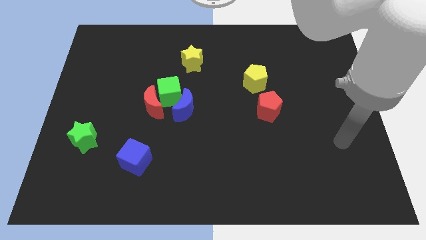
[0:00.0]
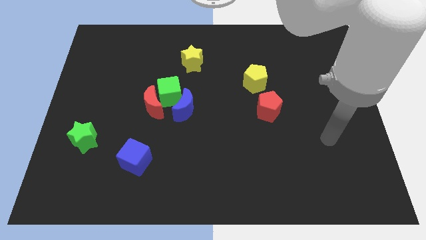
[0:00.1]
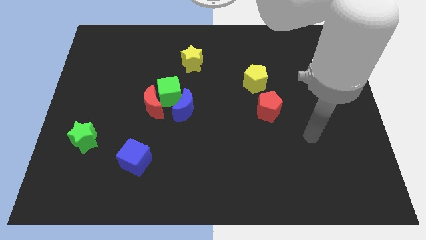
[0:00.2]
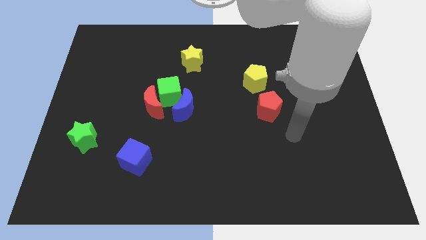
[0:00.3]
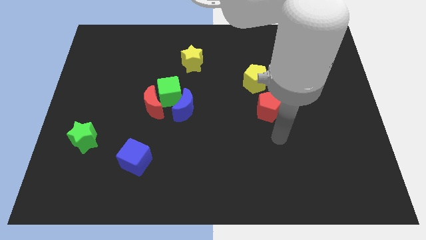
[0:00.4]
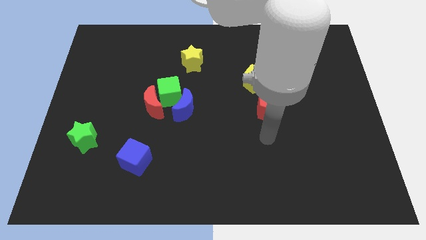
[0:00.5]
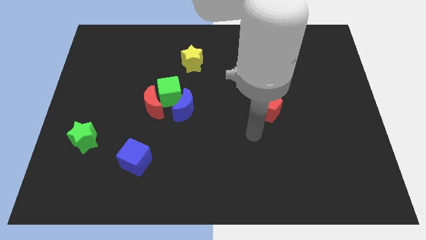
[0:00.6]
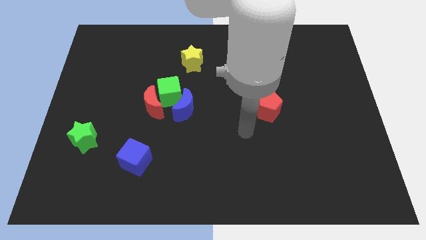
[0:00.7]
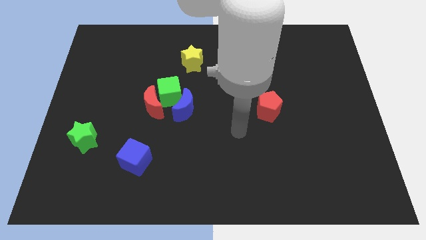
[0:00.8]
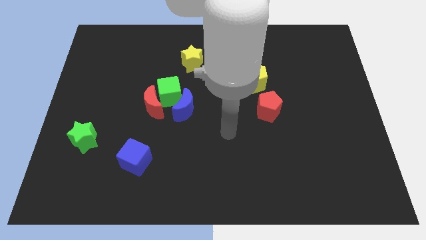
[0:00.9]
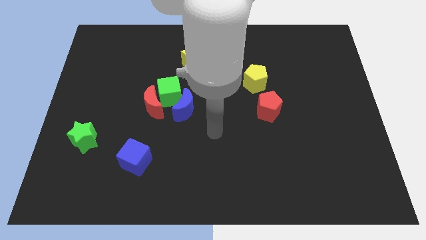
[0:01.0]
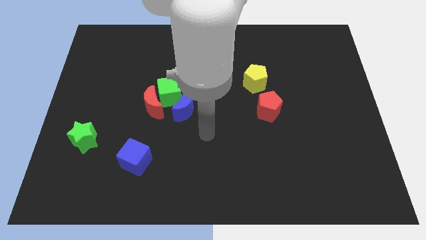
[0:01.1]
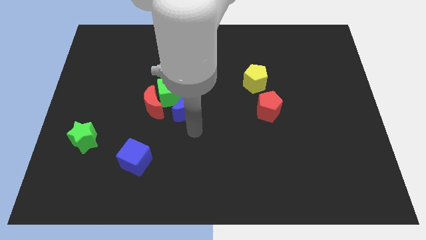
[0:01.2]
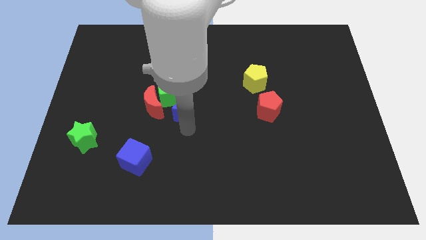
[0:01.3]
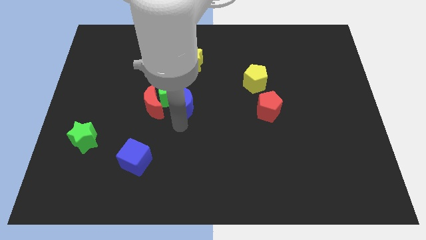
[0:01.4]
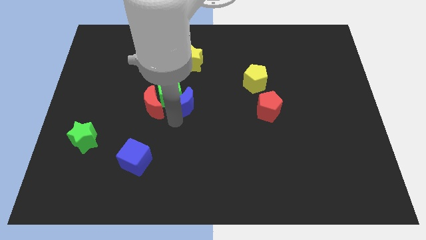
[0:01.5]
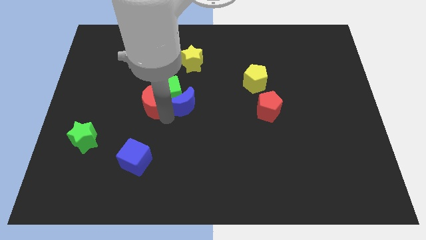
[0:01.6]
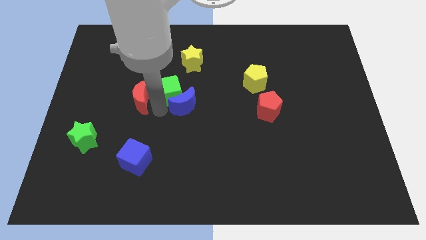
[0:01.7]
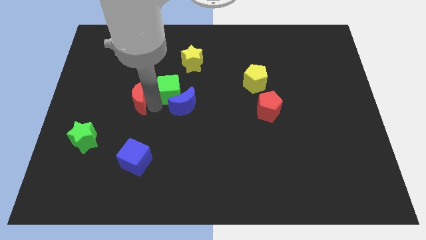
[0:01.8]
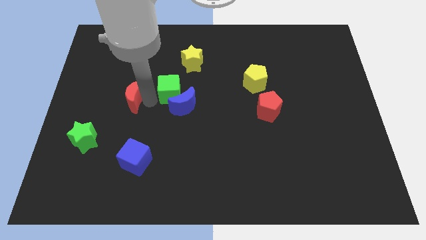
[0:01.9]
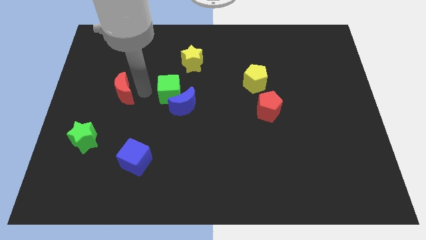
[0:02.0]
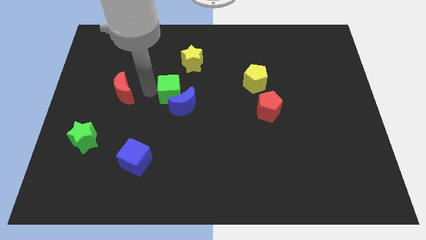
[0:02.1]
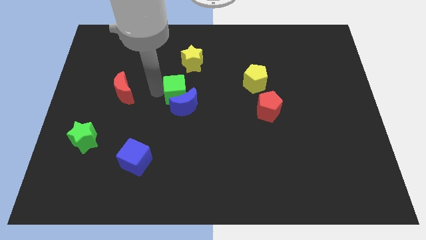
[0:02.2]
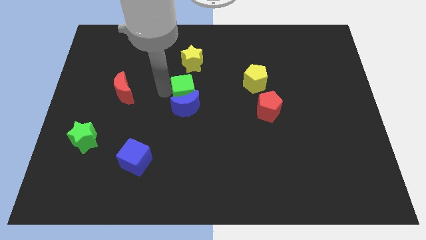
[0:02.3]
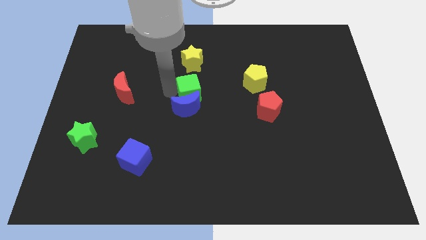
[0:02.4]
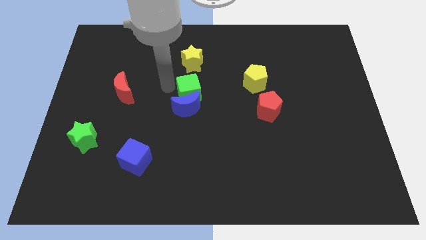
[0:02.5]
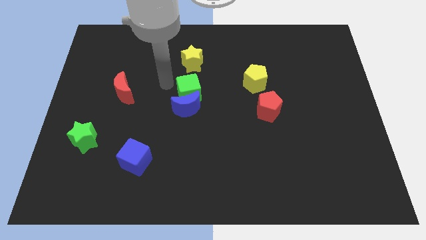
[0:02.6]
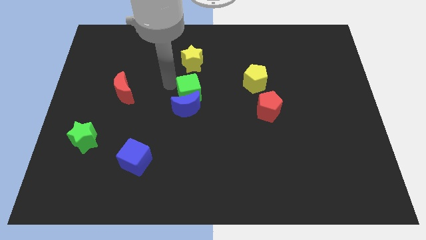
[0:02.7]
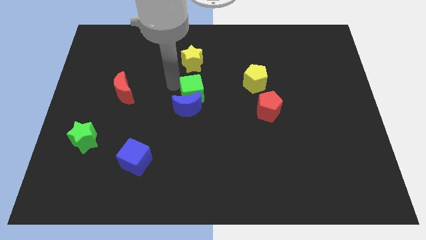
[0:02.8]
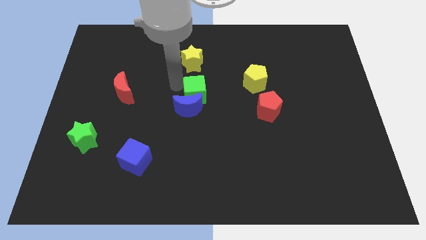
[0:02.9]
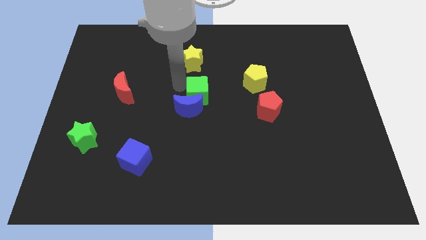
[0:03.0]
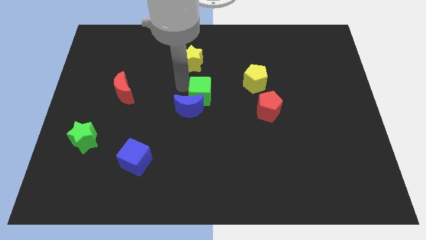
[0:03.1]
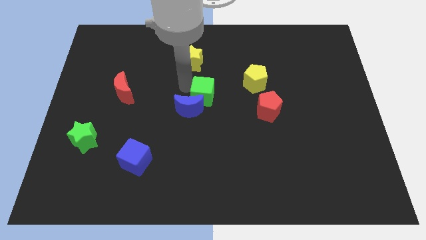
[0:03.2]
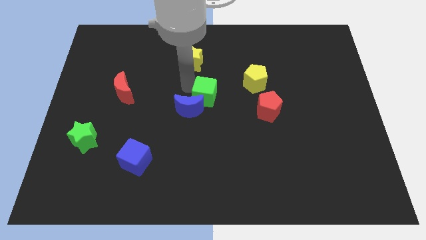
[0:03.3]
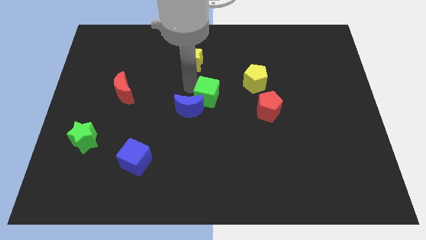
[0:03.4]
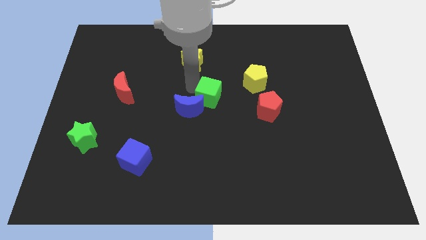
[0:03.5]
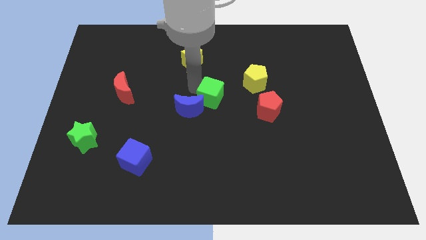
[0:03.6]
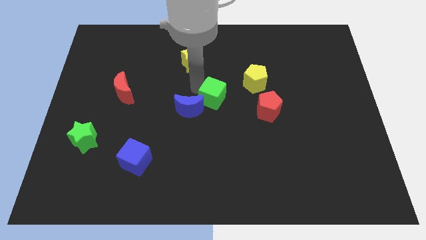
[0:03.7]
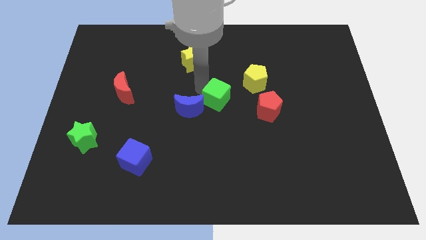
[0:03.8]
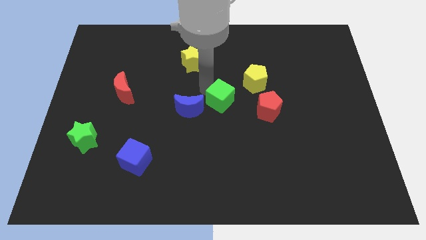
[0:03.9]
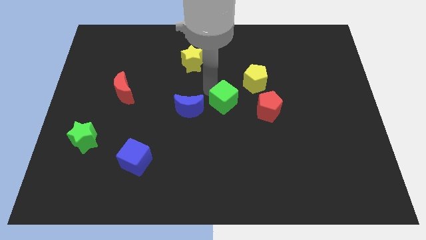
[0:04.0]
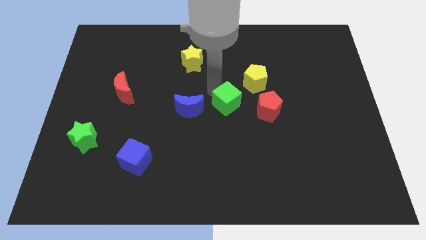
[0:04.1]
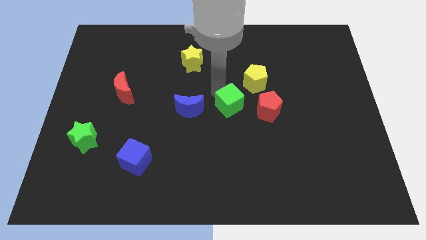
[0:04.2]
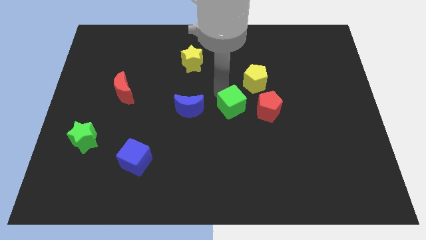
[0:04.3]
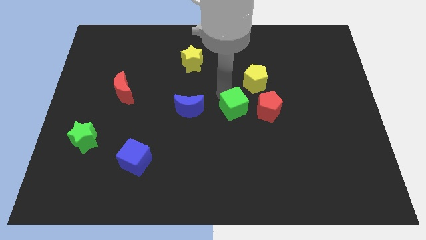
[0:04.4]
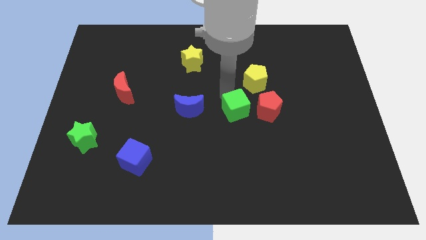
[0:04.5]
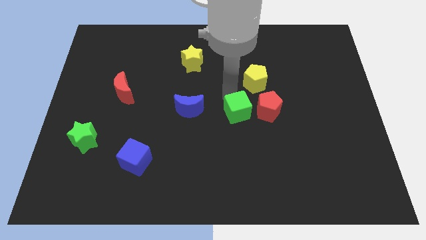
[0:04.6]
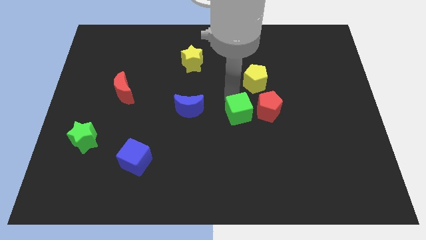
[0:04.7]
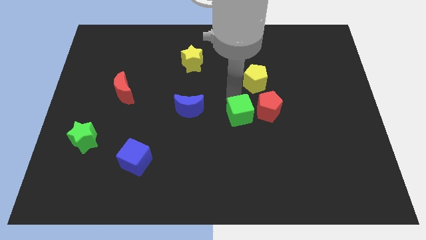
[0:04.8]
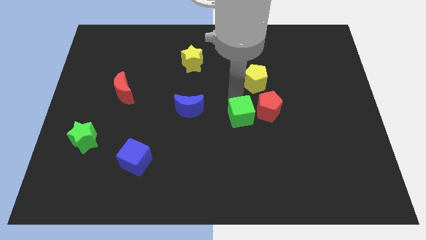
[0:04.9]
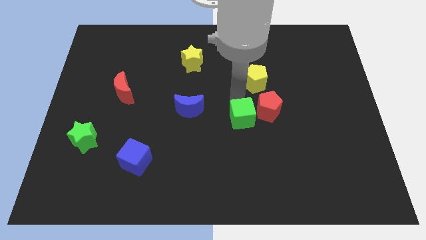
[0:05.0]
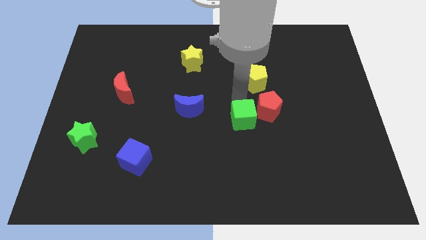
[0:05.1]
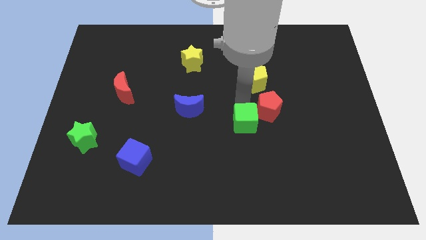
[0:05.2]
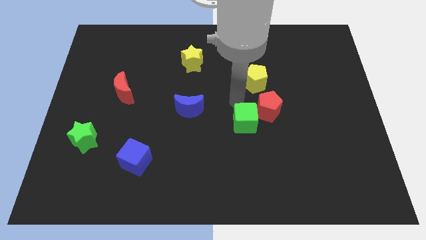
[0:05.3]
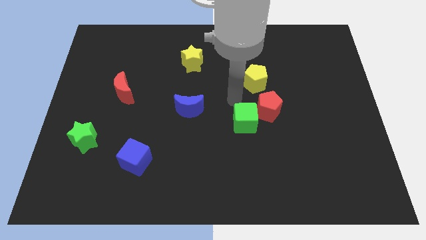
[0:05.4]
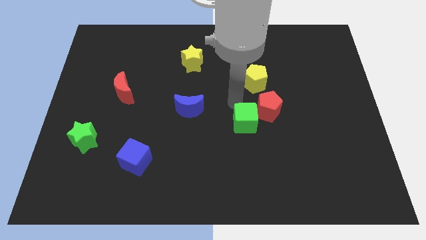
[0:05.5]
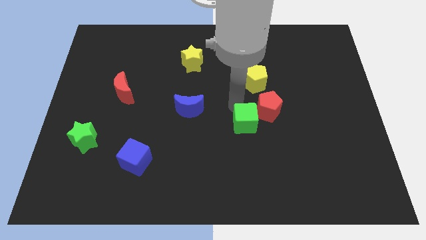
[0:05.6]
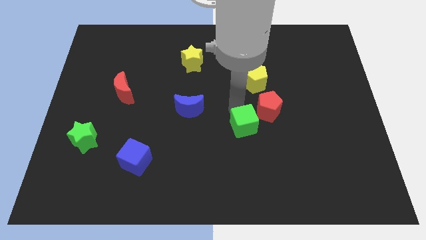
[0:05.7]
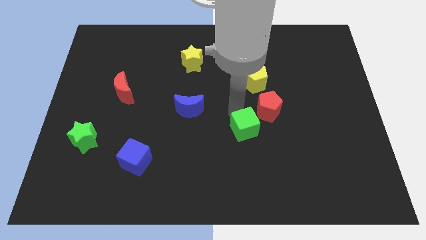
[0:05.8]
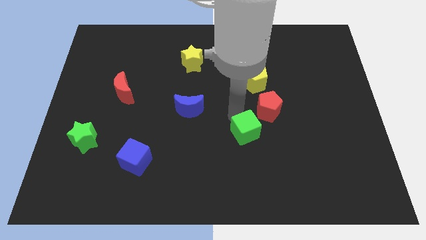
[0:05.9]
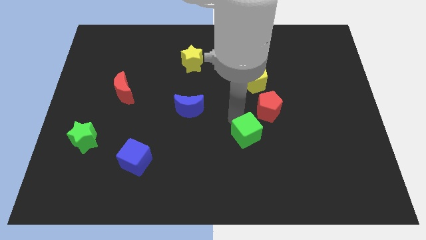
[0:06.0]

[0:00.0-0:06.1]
move the green cube diagonally down and to the right

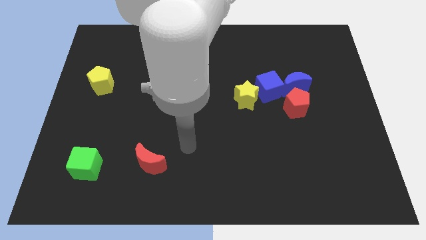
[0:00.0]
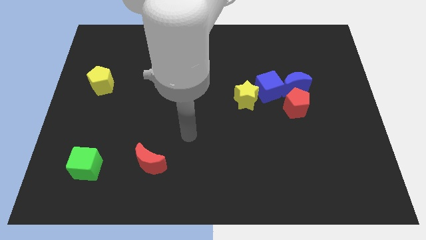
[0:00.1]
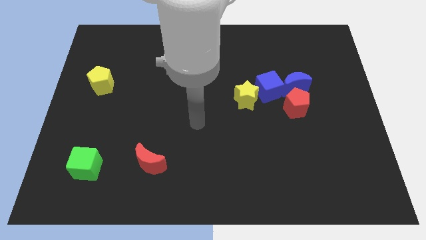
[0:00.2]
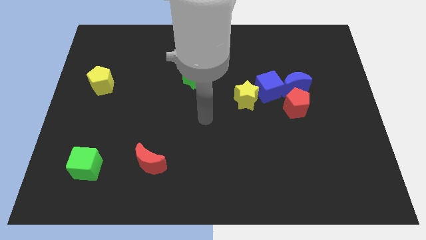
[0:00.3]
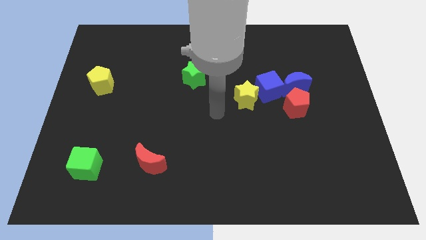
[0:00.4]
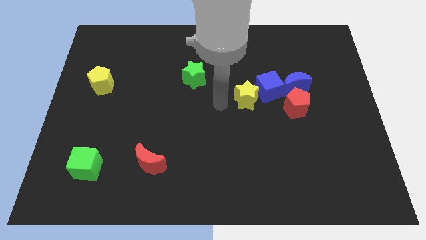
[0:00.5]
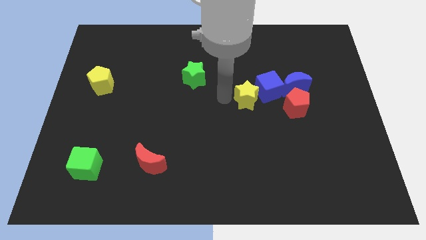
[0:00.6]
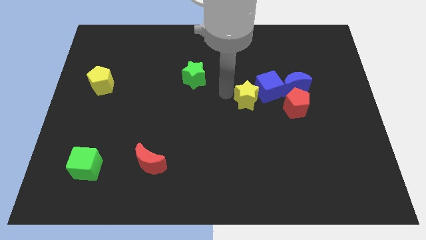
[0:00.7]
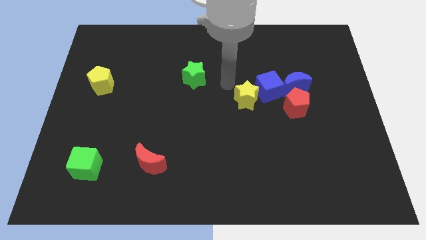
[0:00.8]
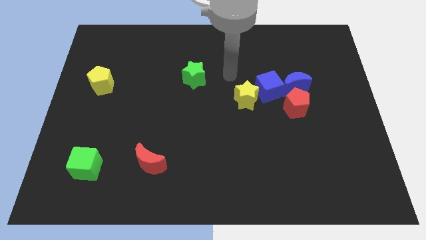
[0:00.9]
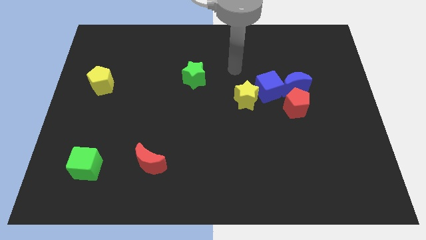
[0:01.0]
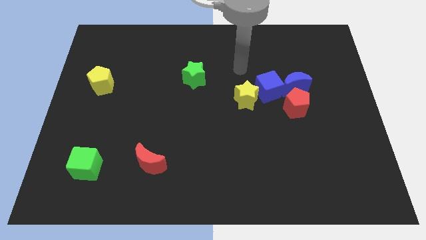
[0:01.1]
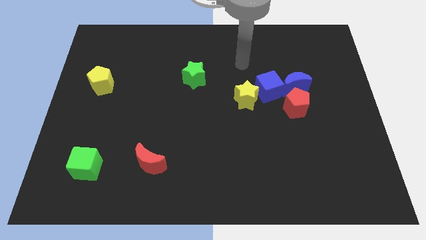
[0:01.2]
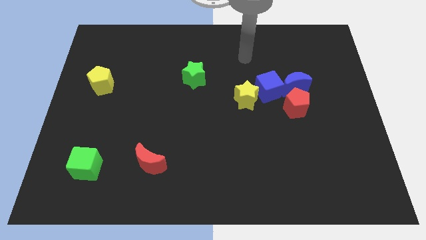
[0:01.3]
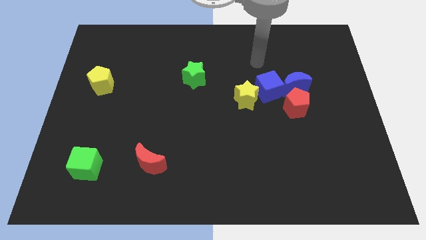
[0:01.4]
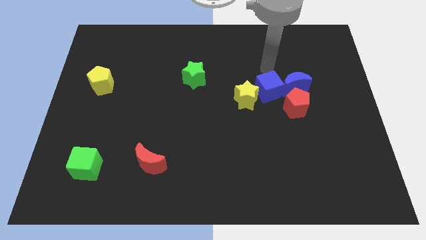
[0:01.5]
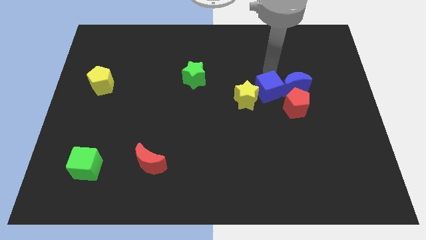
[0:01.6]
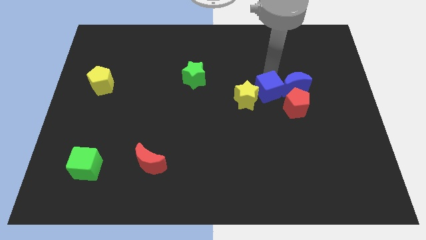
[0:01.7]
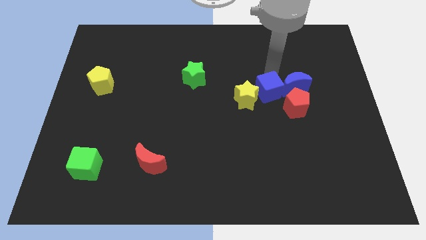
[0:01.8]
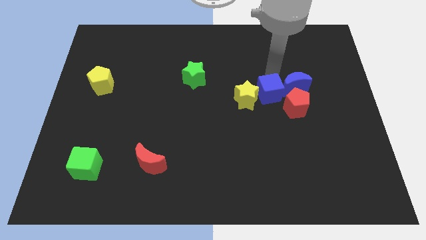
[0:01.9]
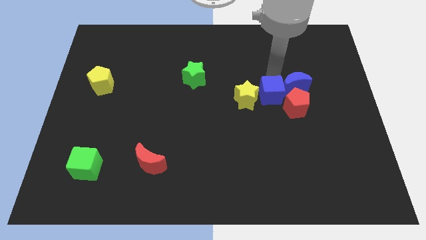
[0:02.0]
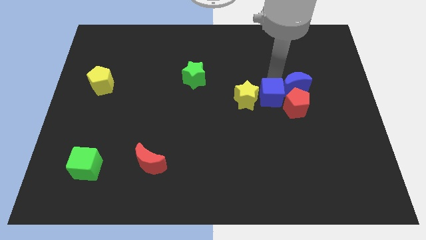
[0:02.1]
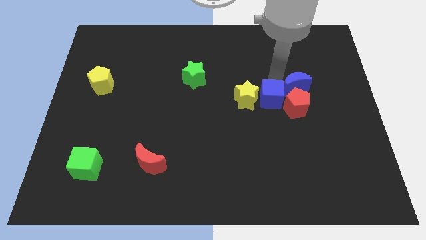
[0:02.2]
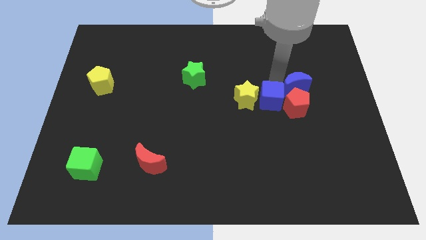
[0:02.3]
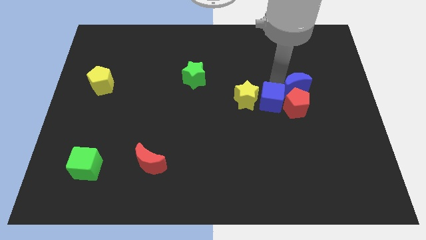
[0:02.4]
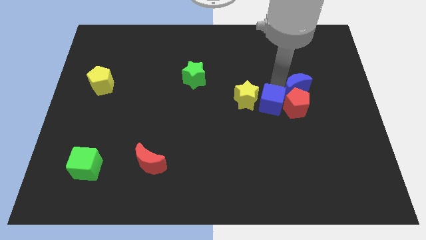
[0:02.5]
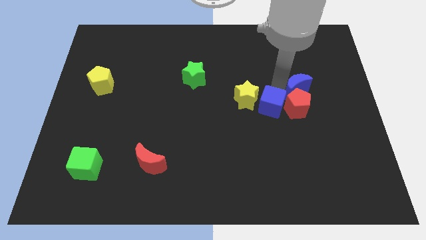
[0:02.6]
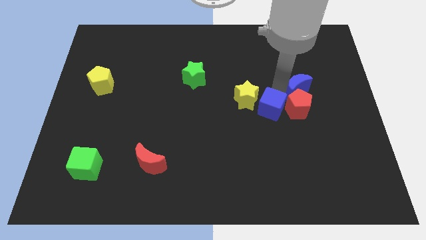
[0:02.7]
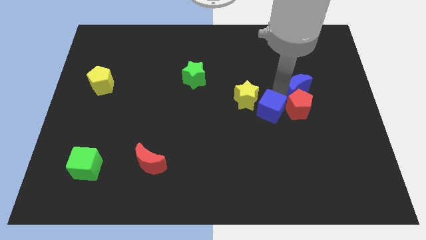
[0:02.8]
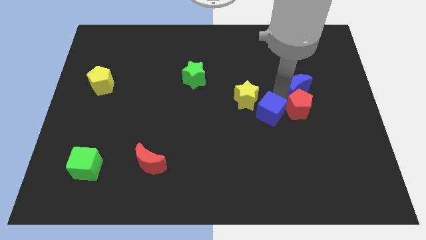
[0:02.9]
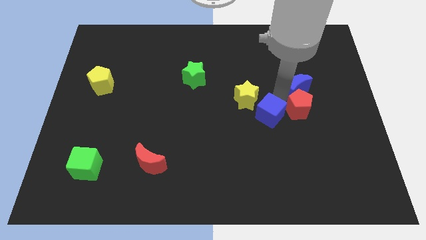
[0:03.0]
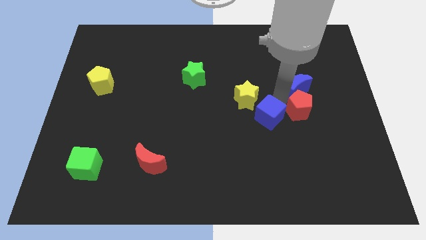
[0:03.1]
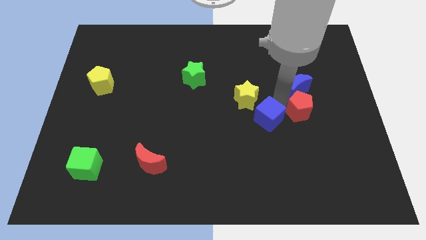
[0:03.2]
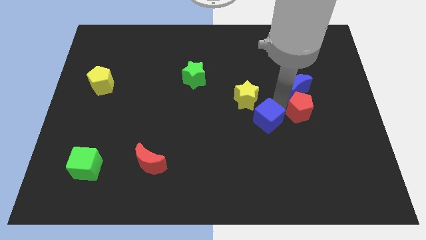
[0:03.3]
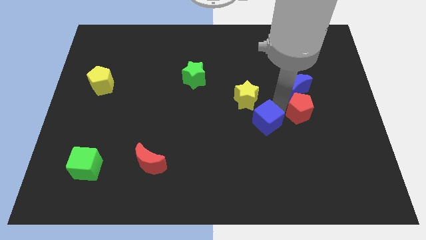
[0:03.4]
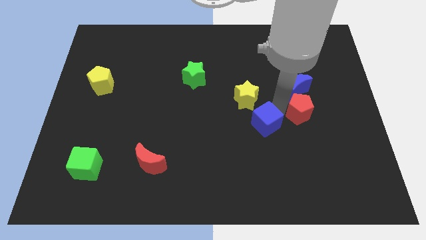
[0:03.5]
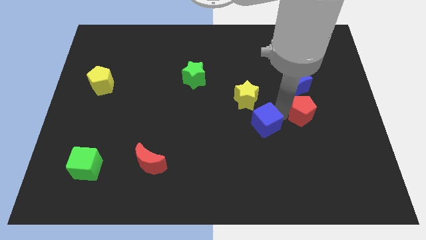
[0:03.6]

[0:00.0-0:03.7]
slightly push the blue cube downwards and left
